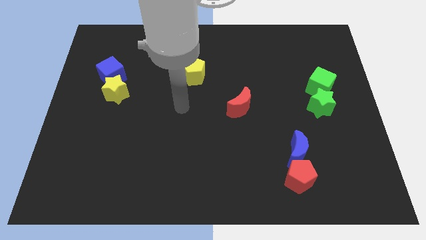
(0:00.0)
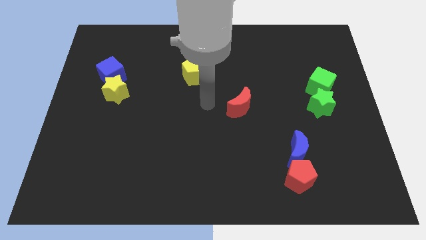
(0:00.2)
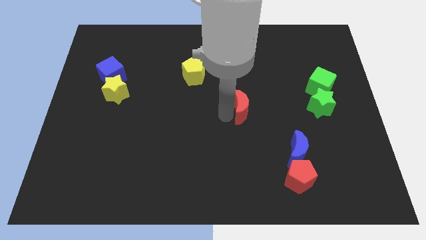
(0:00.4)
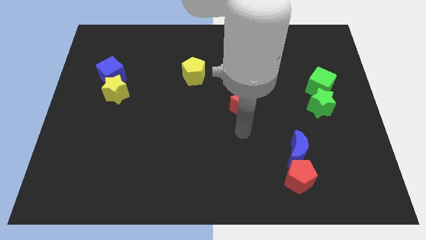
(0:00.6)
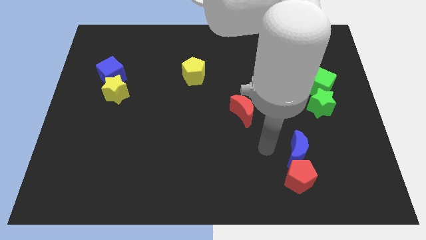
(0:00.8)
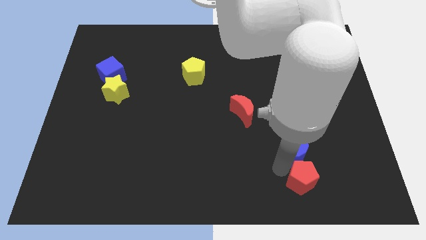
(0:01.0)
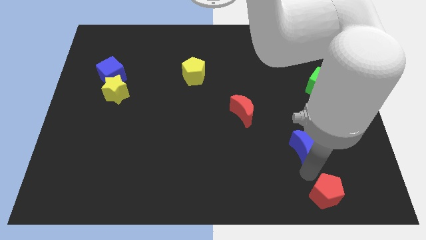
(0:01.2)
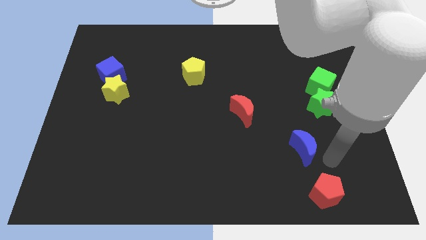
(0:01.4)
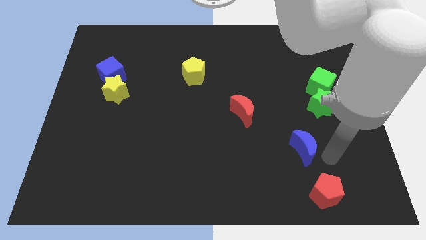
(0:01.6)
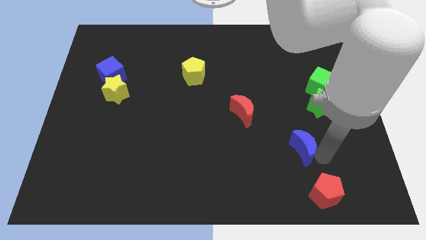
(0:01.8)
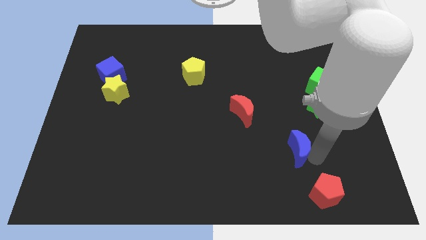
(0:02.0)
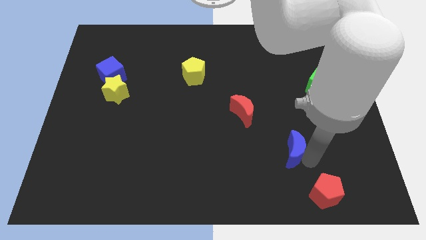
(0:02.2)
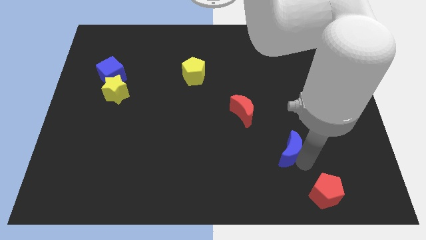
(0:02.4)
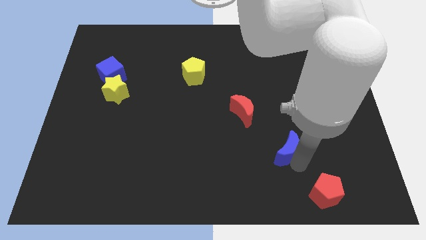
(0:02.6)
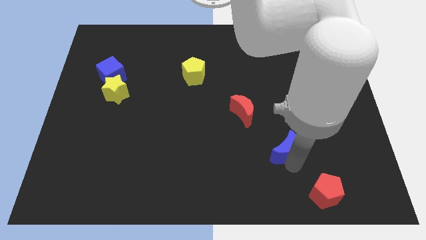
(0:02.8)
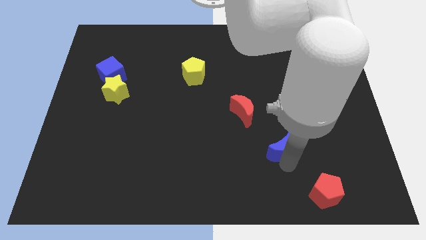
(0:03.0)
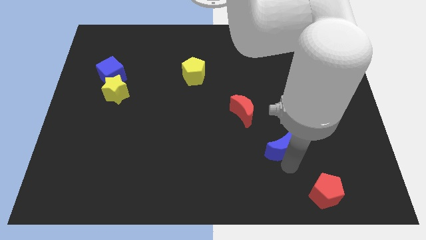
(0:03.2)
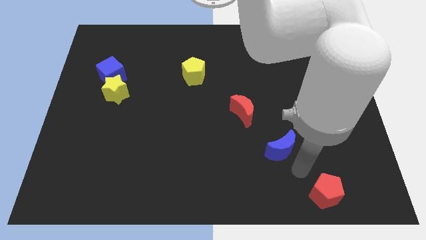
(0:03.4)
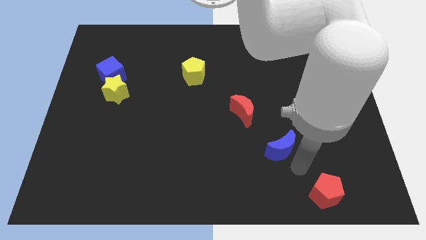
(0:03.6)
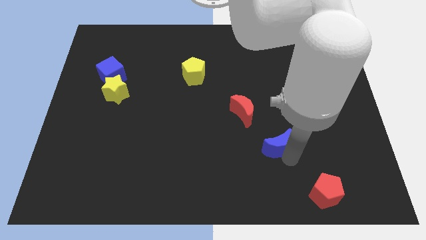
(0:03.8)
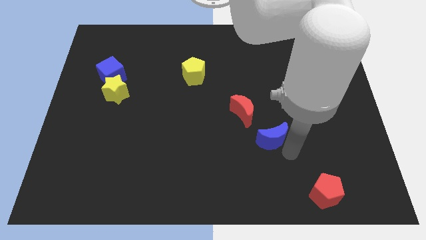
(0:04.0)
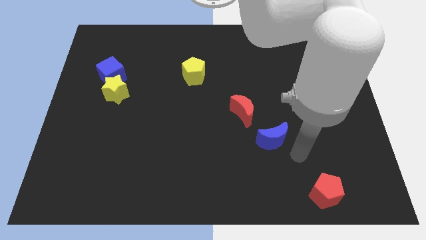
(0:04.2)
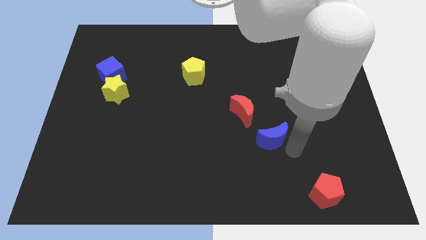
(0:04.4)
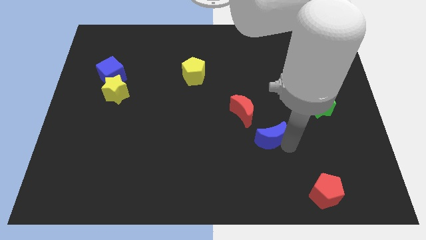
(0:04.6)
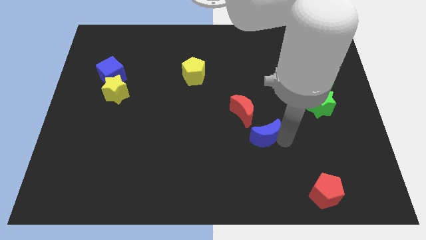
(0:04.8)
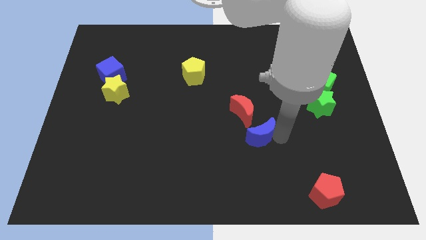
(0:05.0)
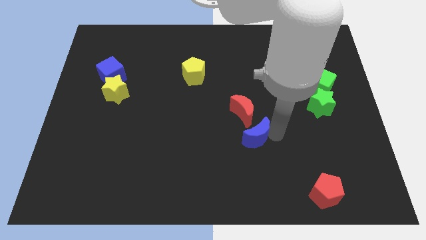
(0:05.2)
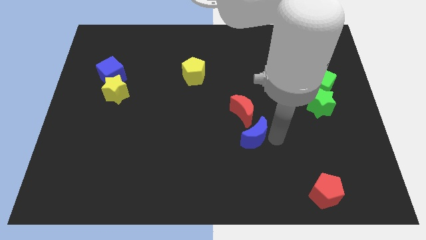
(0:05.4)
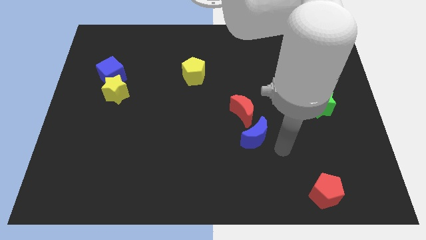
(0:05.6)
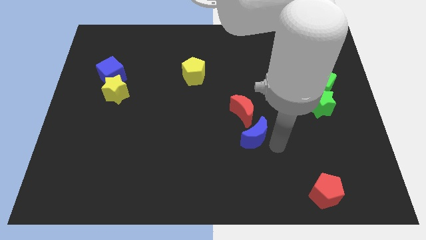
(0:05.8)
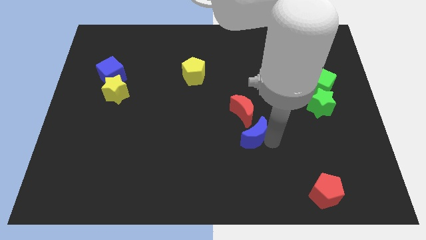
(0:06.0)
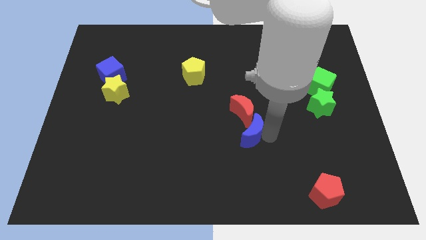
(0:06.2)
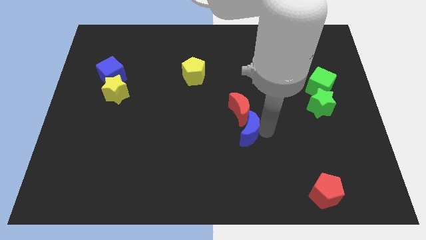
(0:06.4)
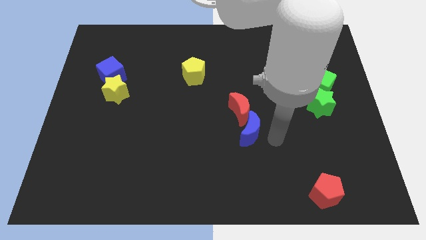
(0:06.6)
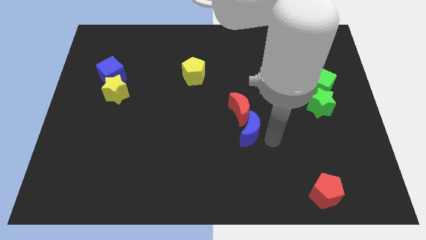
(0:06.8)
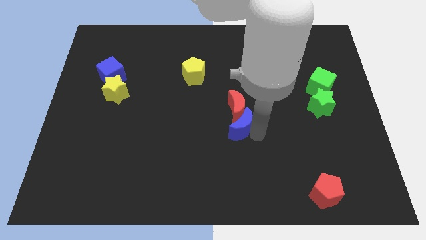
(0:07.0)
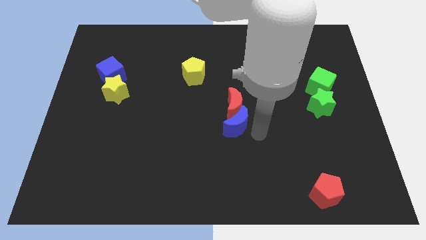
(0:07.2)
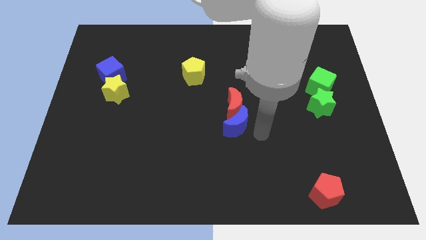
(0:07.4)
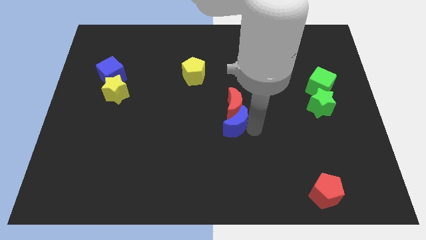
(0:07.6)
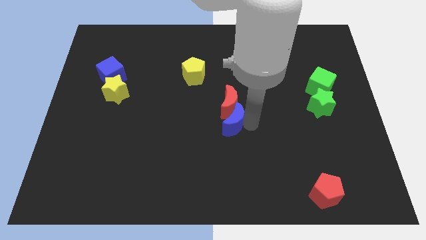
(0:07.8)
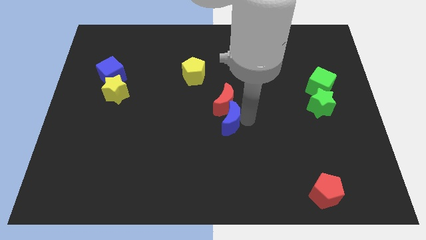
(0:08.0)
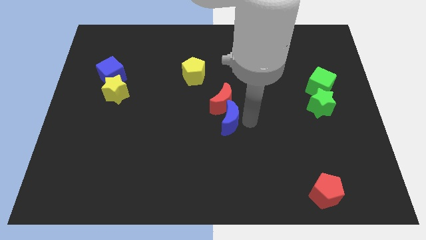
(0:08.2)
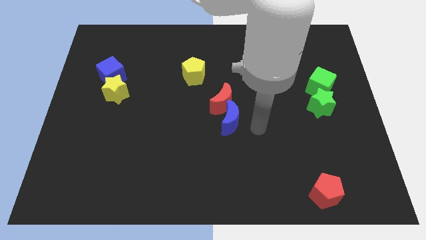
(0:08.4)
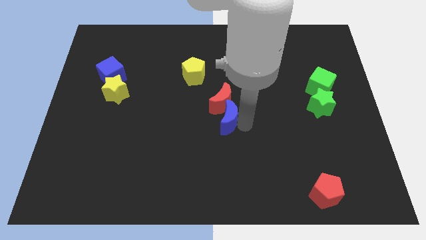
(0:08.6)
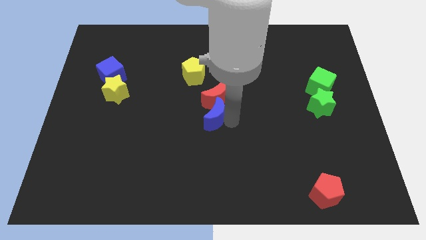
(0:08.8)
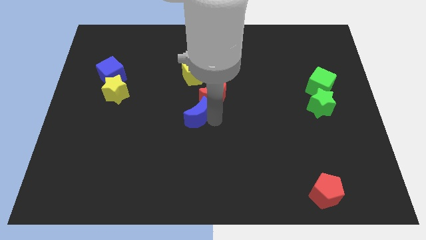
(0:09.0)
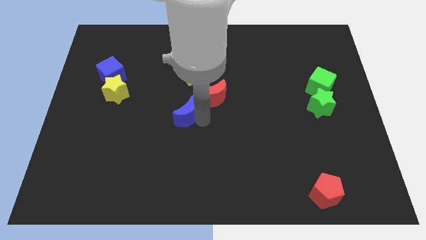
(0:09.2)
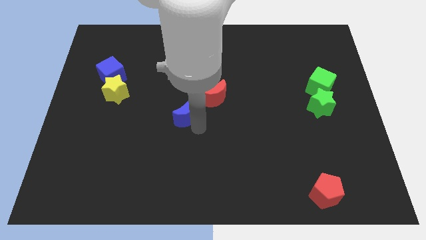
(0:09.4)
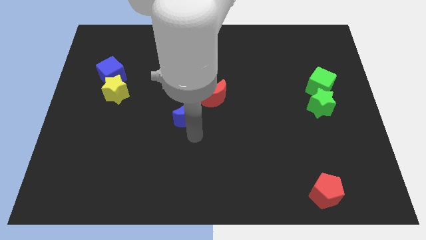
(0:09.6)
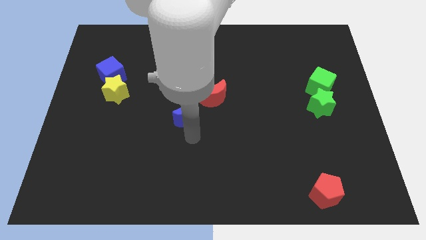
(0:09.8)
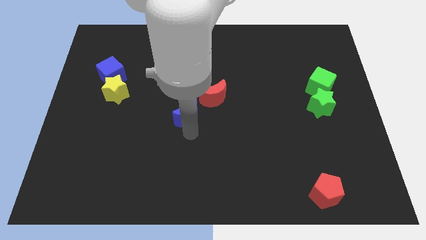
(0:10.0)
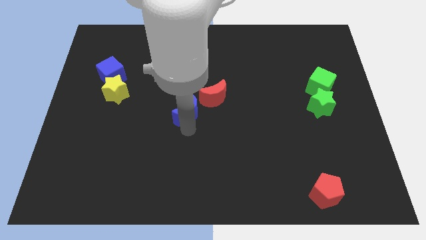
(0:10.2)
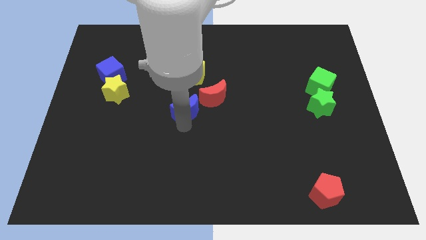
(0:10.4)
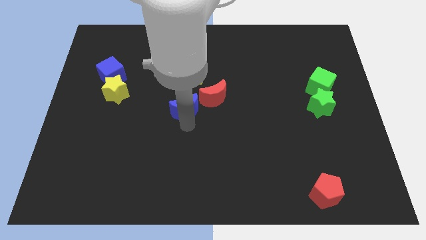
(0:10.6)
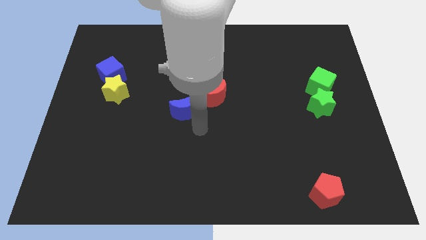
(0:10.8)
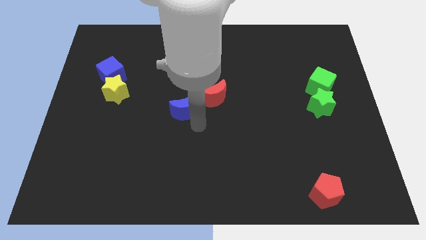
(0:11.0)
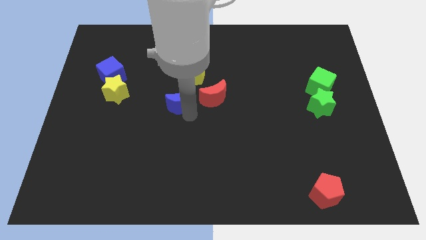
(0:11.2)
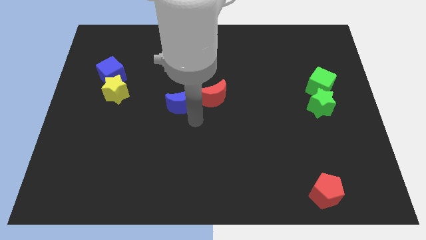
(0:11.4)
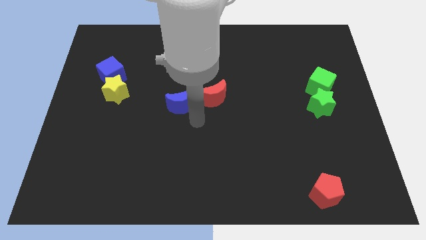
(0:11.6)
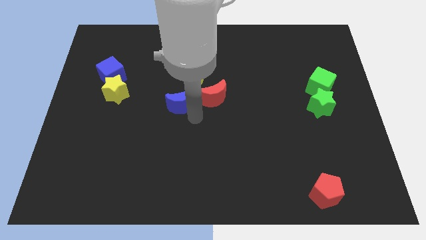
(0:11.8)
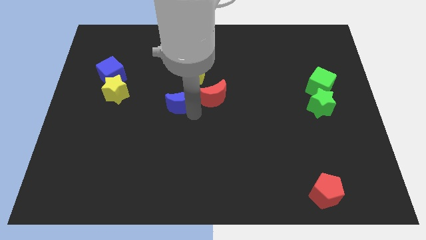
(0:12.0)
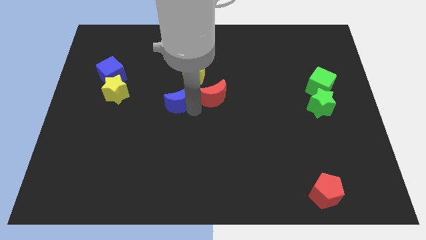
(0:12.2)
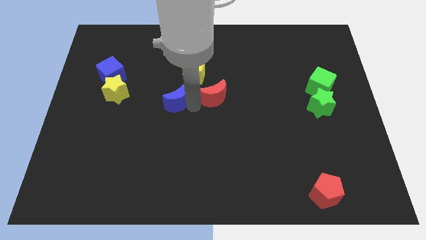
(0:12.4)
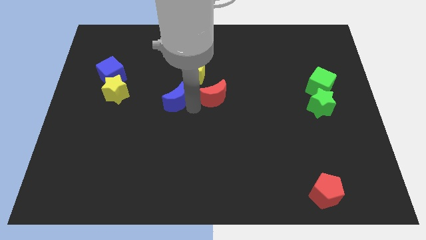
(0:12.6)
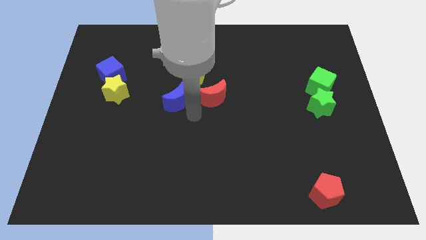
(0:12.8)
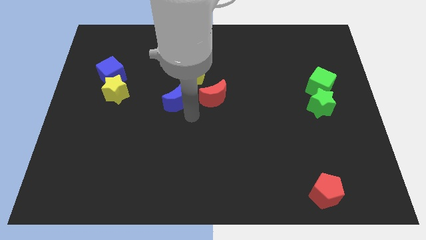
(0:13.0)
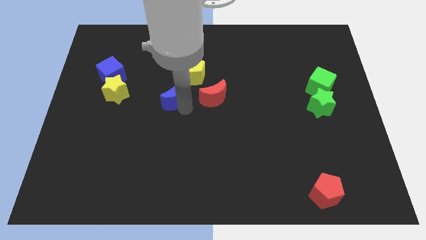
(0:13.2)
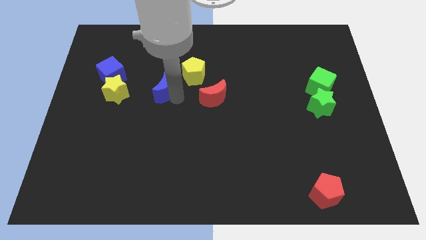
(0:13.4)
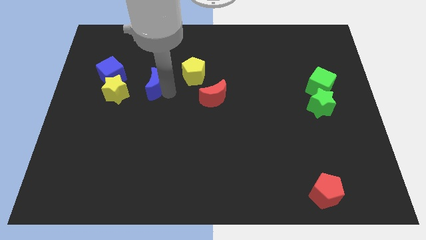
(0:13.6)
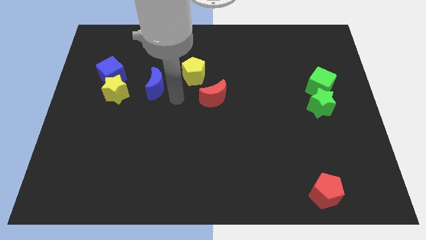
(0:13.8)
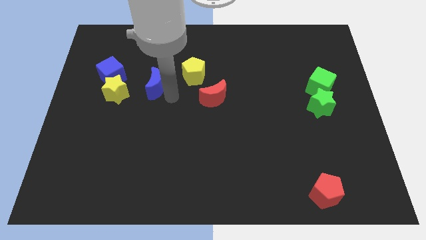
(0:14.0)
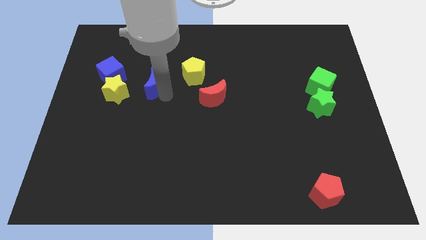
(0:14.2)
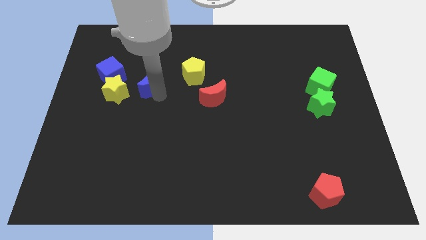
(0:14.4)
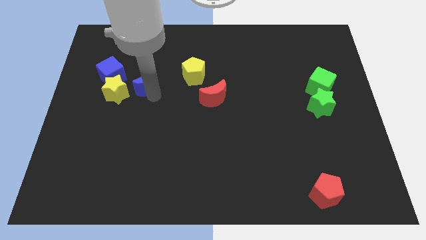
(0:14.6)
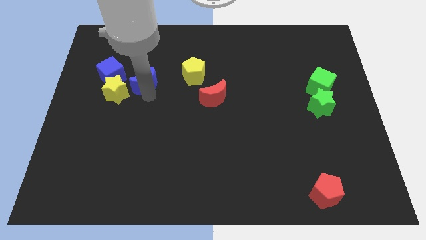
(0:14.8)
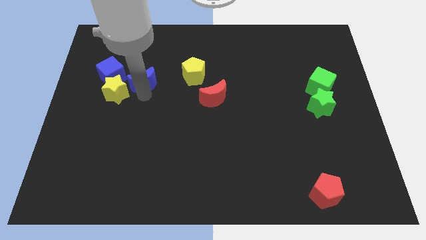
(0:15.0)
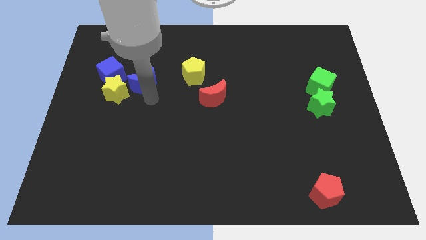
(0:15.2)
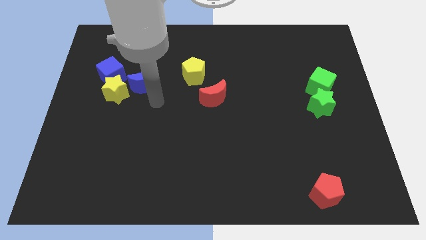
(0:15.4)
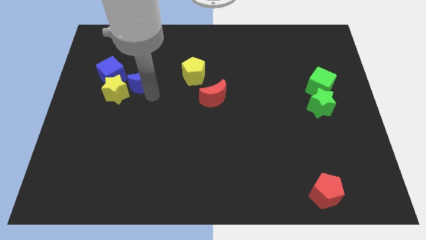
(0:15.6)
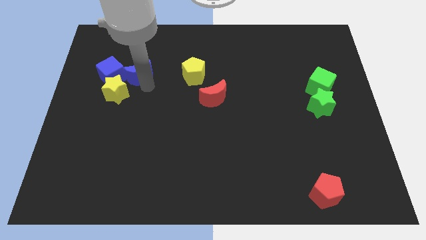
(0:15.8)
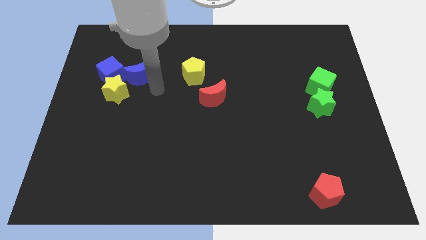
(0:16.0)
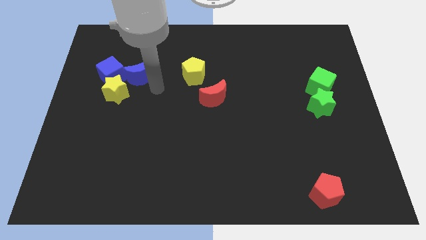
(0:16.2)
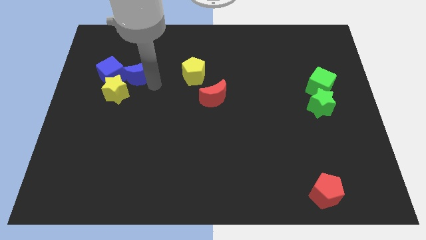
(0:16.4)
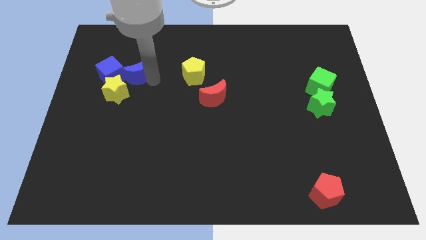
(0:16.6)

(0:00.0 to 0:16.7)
put the blue moon above the yellow star
